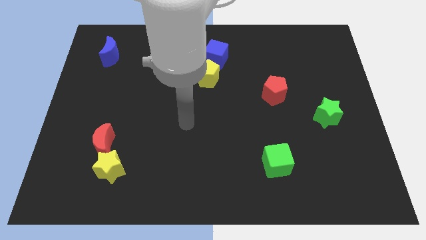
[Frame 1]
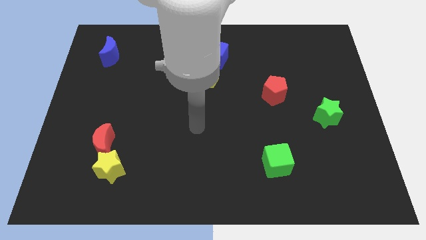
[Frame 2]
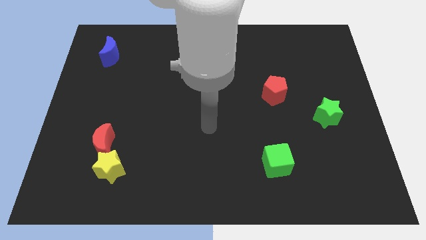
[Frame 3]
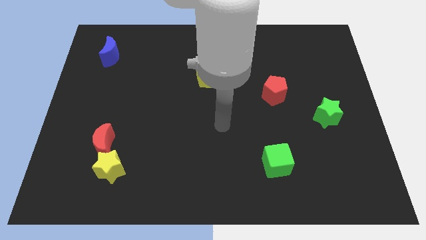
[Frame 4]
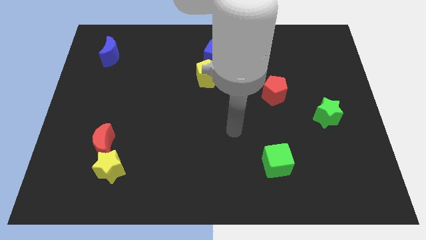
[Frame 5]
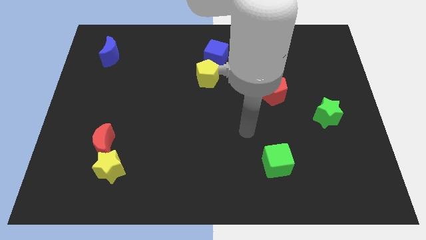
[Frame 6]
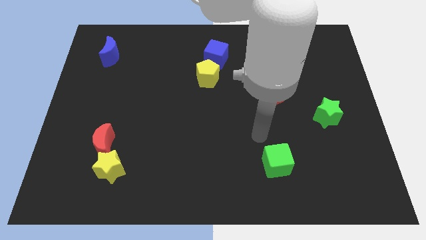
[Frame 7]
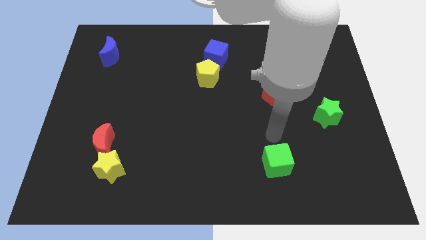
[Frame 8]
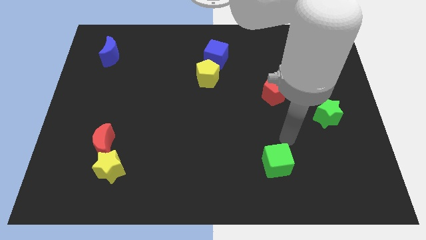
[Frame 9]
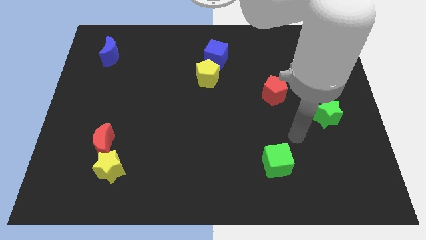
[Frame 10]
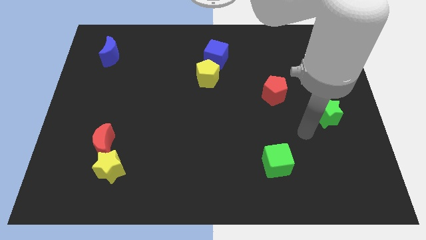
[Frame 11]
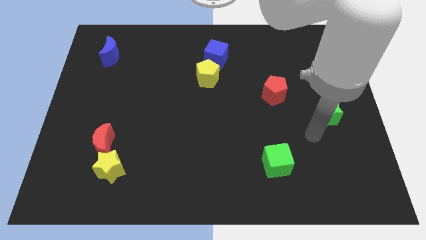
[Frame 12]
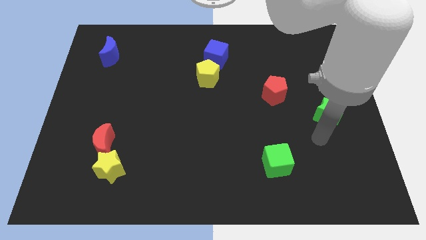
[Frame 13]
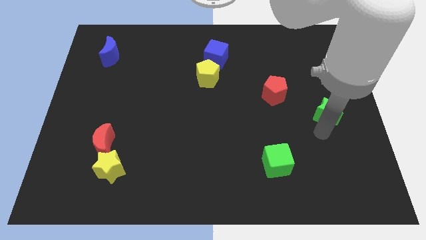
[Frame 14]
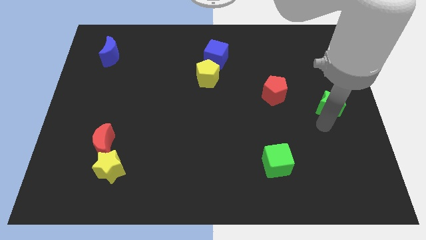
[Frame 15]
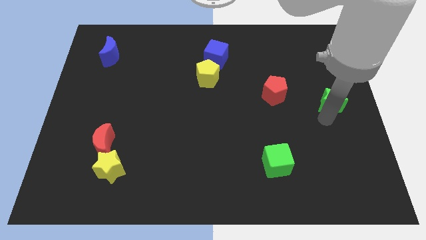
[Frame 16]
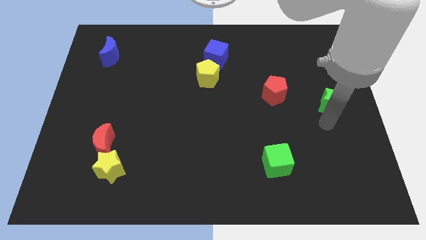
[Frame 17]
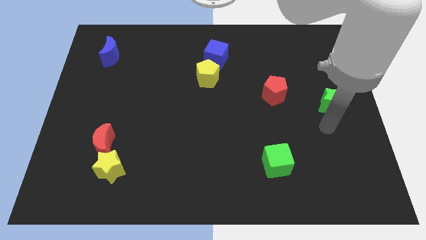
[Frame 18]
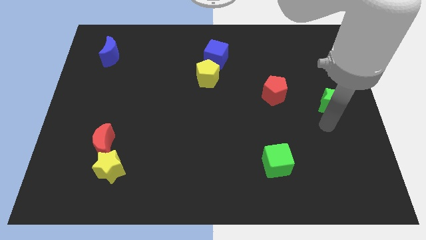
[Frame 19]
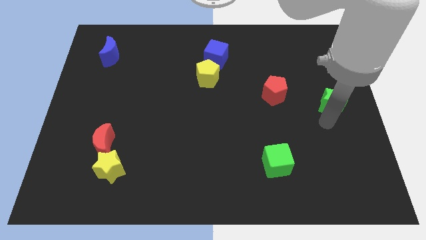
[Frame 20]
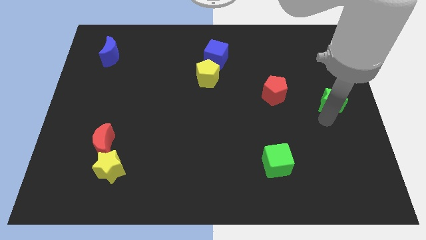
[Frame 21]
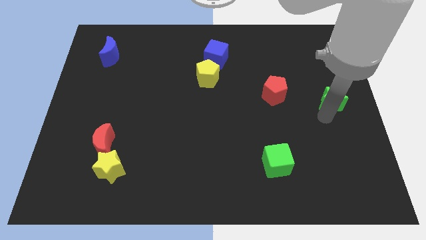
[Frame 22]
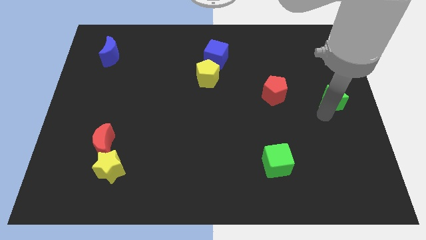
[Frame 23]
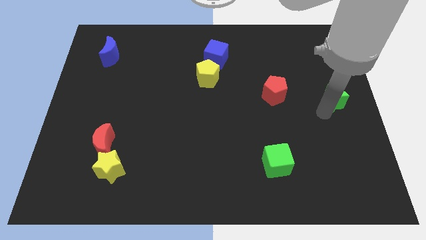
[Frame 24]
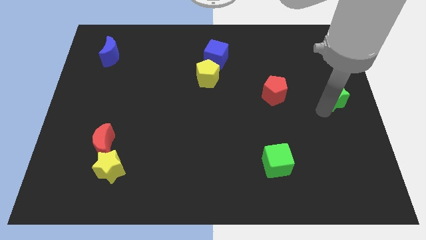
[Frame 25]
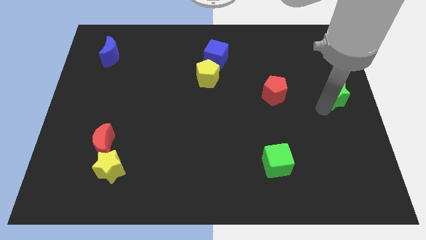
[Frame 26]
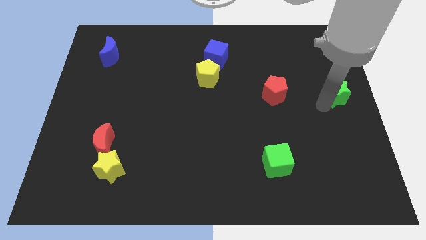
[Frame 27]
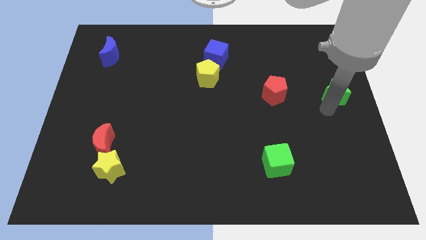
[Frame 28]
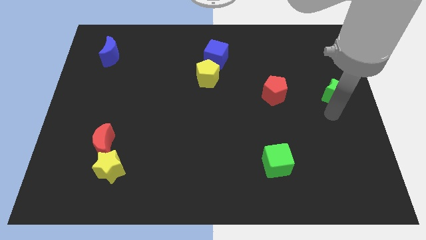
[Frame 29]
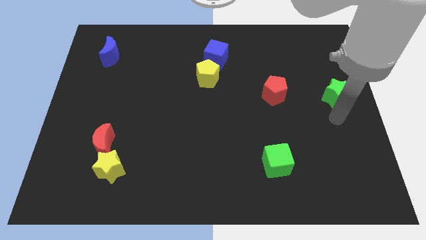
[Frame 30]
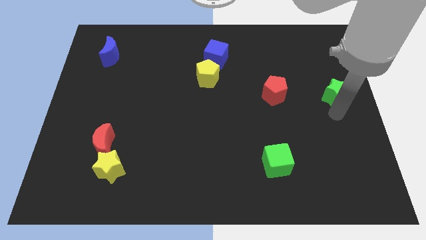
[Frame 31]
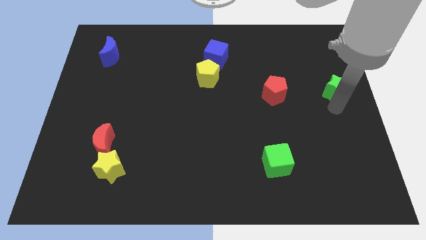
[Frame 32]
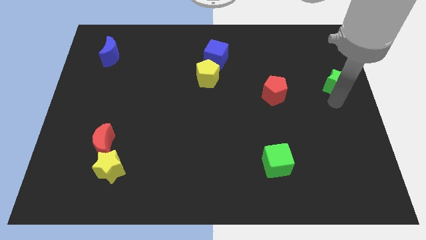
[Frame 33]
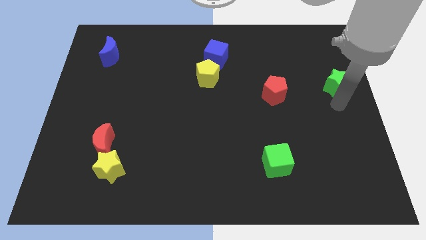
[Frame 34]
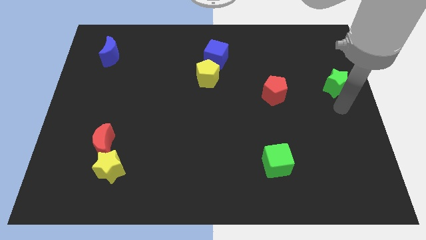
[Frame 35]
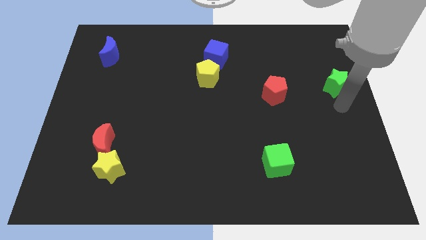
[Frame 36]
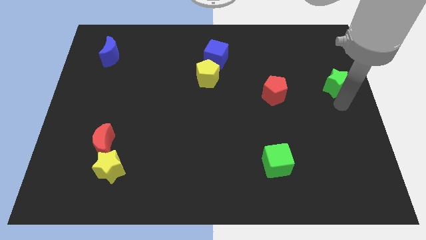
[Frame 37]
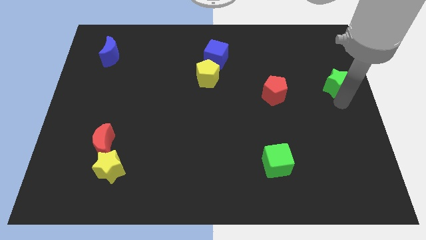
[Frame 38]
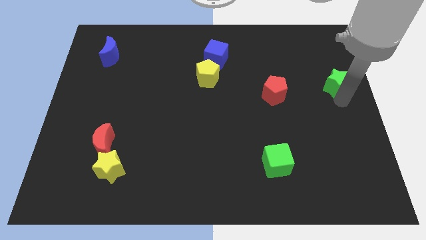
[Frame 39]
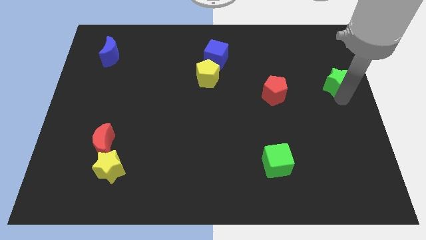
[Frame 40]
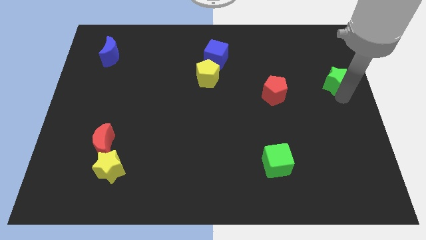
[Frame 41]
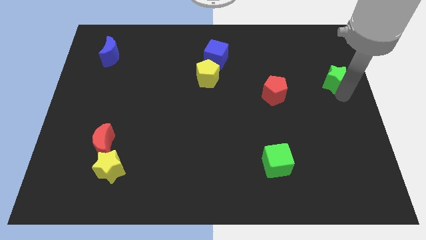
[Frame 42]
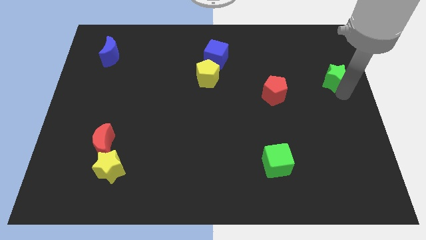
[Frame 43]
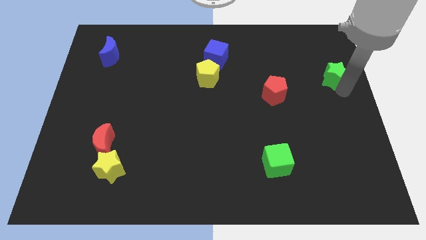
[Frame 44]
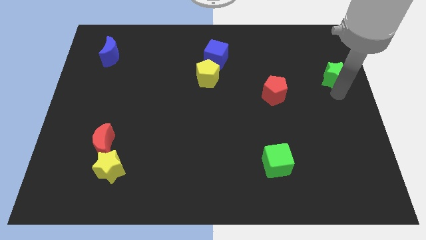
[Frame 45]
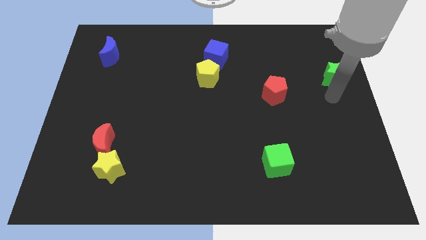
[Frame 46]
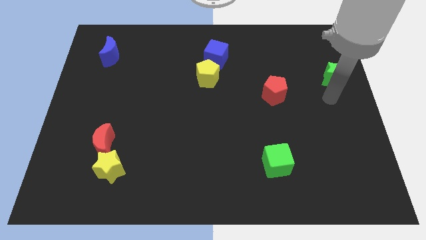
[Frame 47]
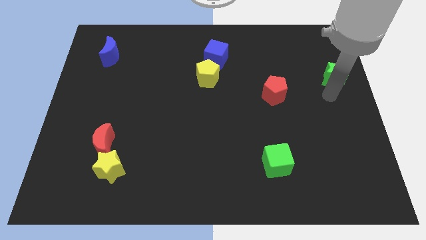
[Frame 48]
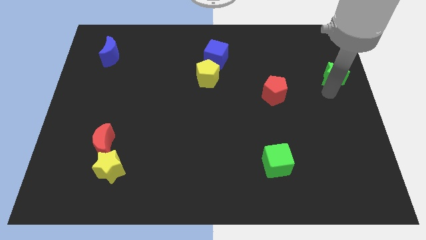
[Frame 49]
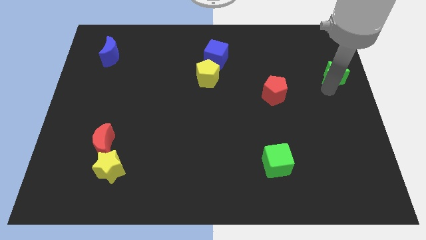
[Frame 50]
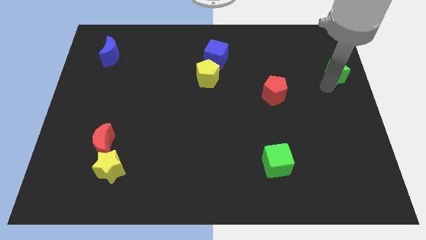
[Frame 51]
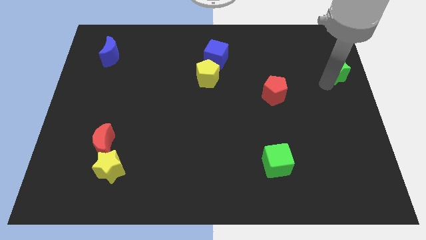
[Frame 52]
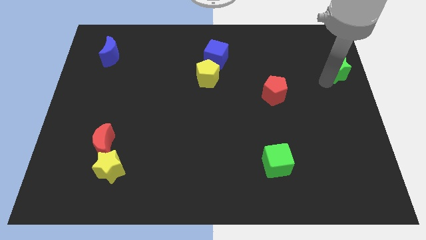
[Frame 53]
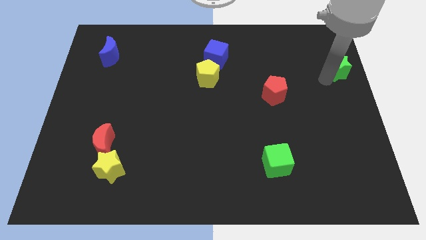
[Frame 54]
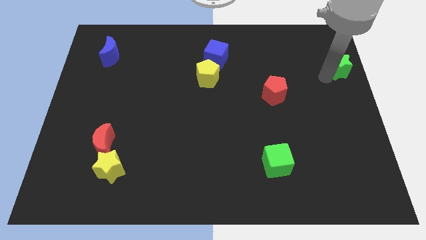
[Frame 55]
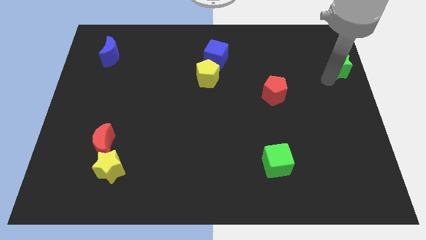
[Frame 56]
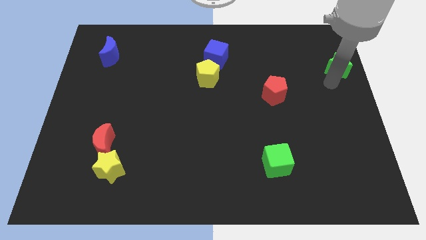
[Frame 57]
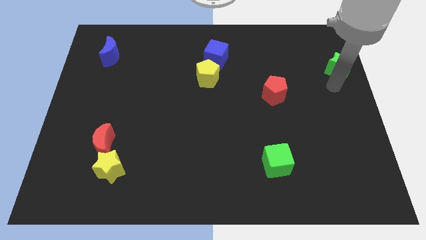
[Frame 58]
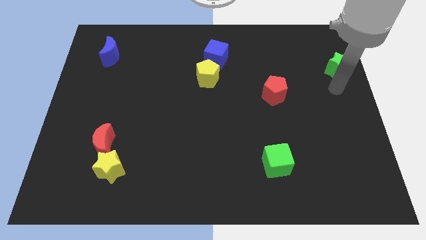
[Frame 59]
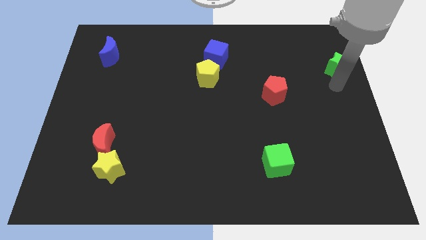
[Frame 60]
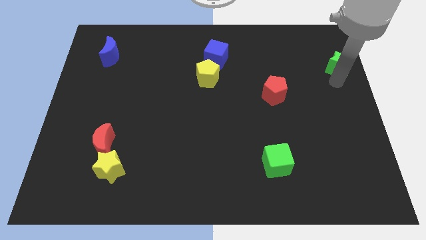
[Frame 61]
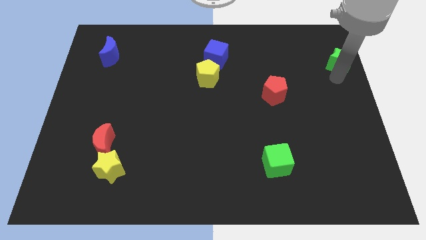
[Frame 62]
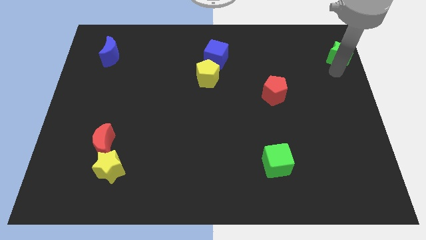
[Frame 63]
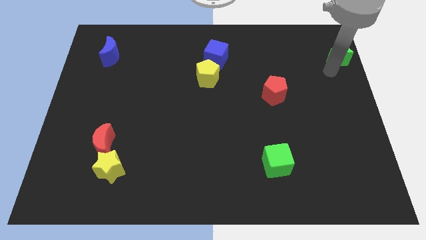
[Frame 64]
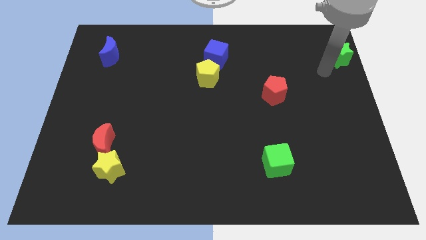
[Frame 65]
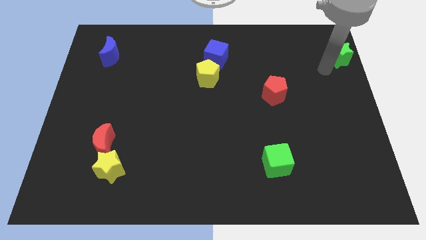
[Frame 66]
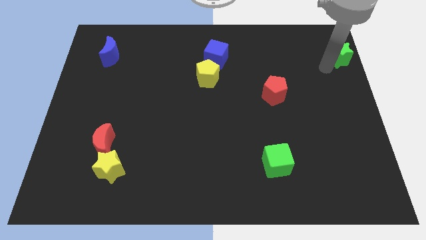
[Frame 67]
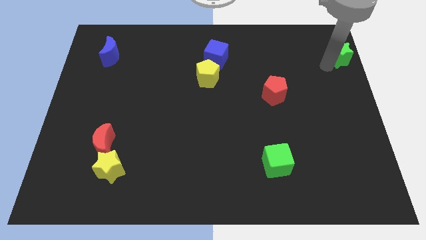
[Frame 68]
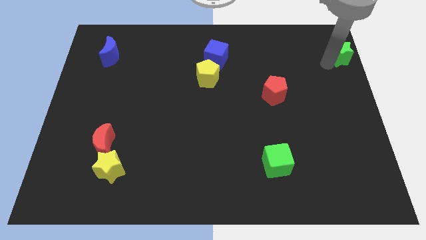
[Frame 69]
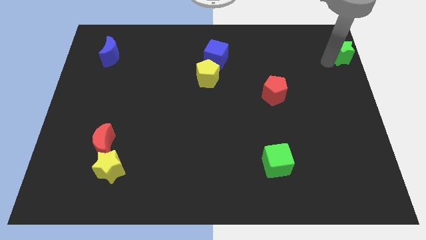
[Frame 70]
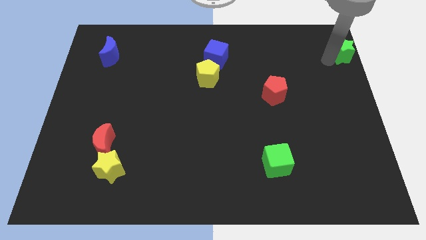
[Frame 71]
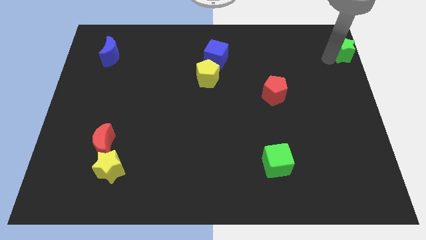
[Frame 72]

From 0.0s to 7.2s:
put the green star to the top right of the board
